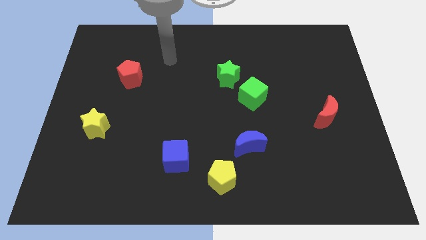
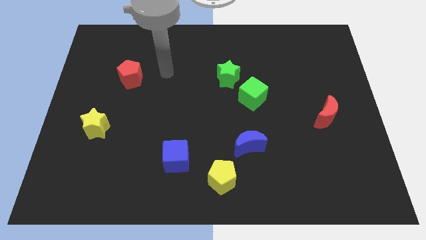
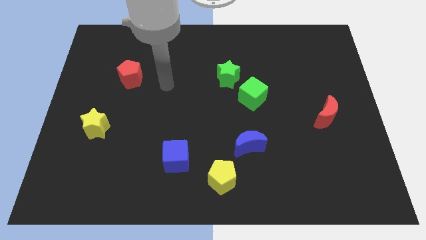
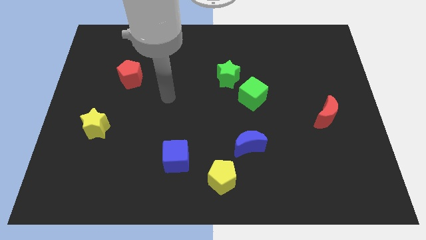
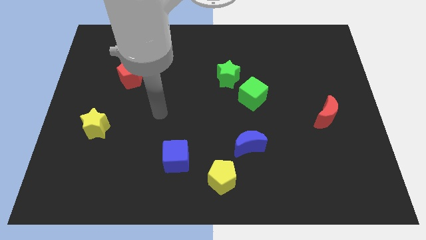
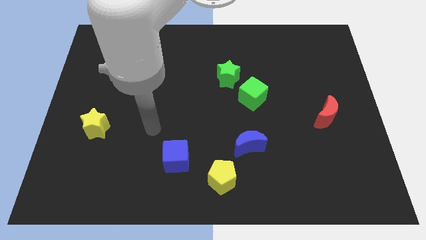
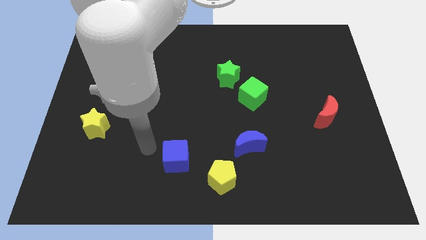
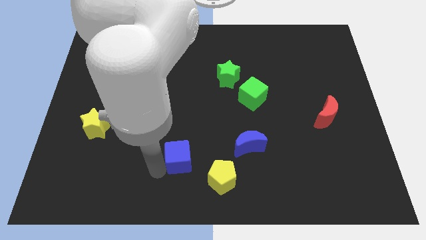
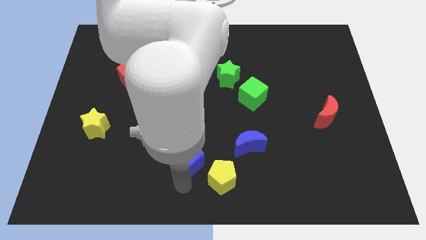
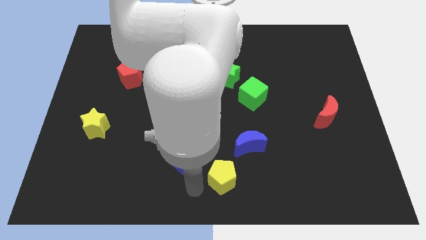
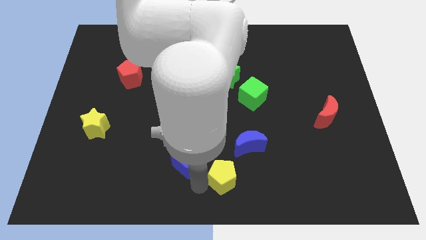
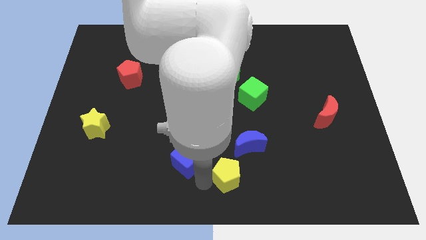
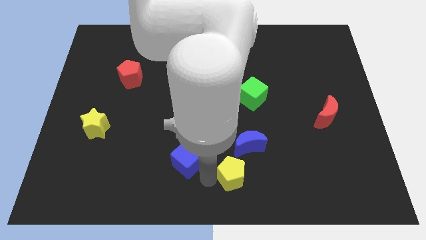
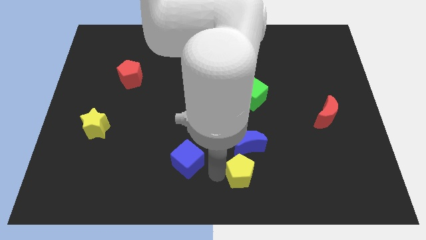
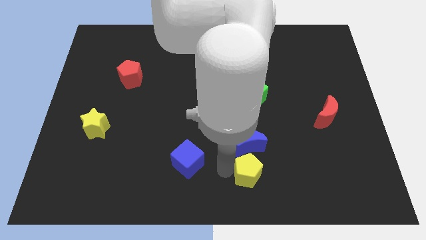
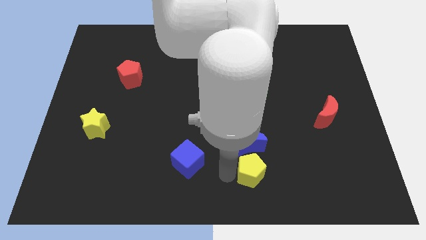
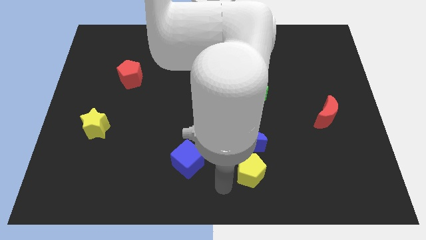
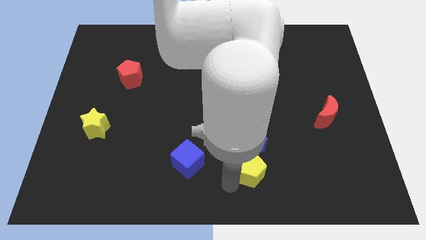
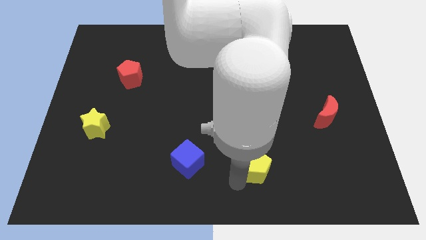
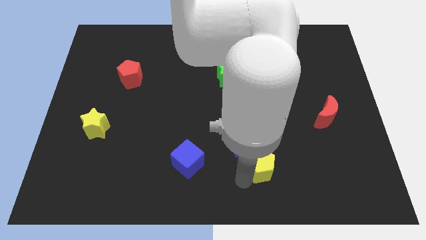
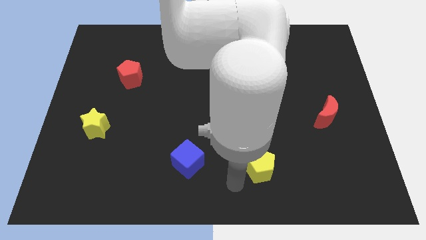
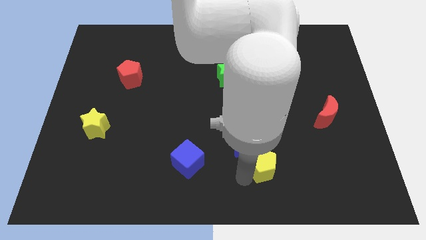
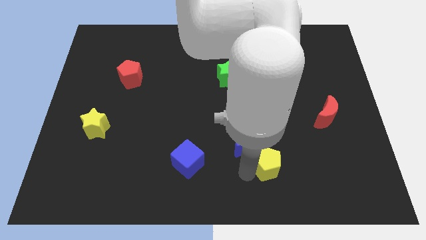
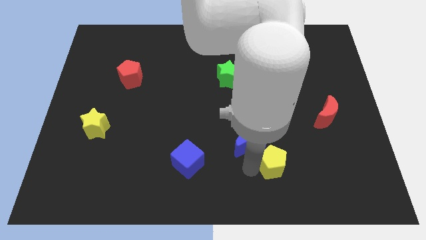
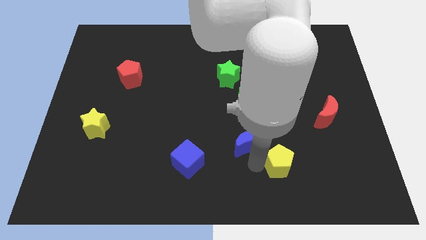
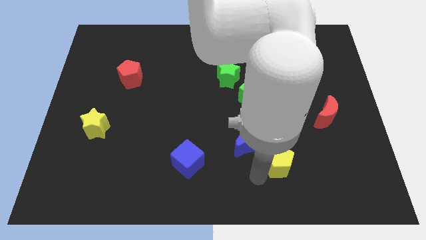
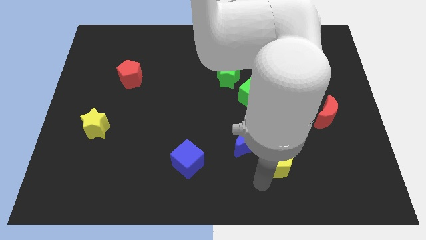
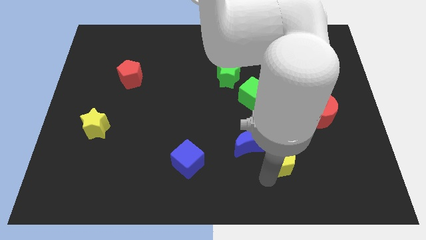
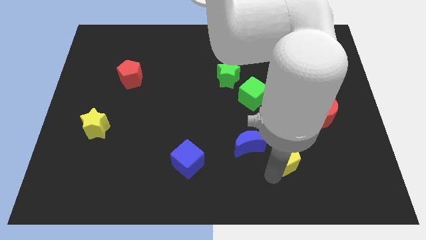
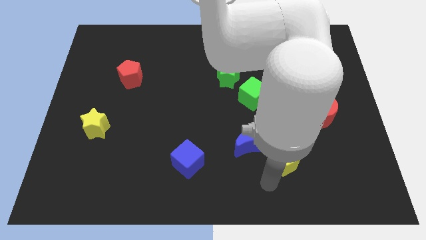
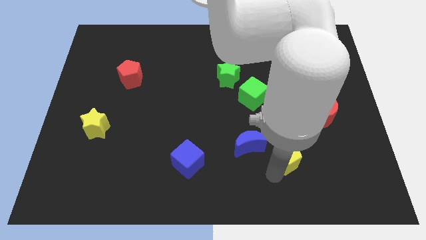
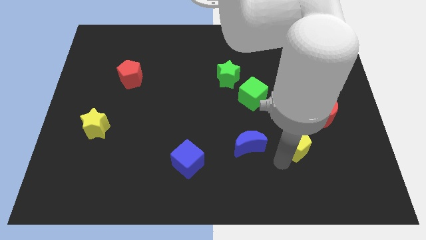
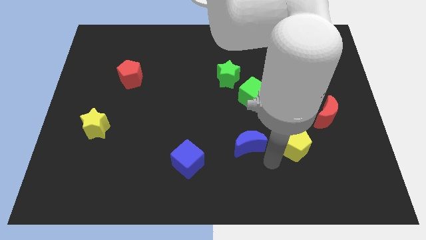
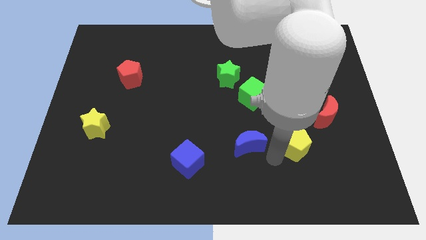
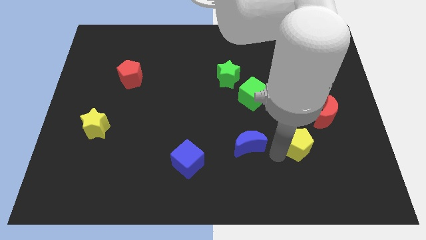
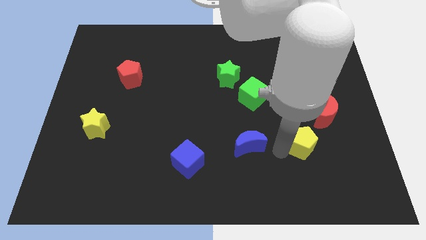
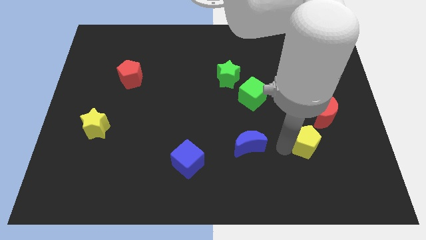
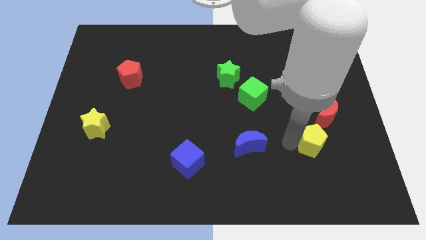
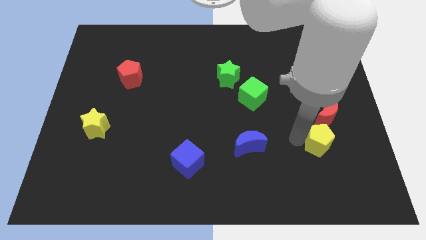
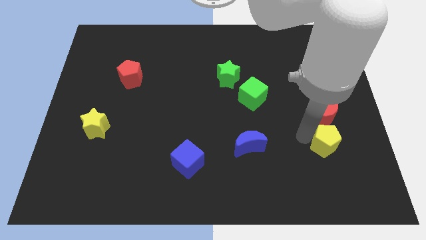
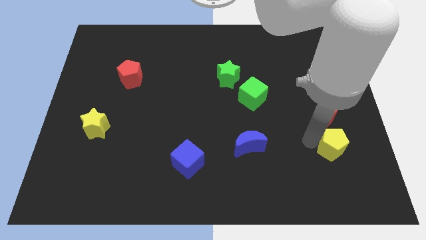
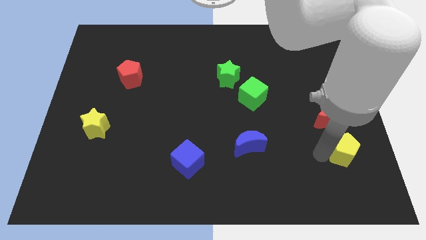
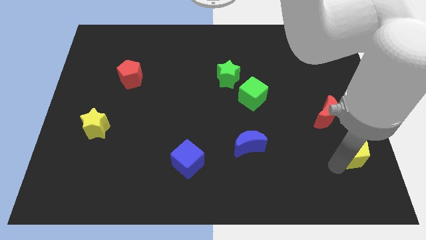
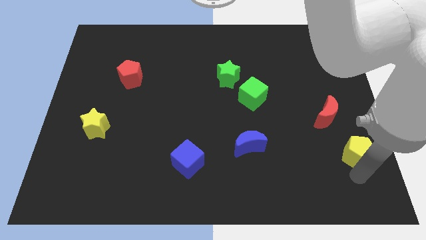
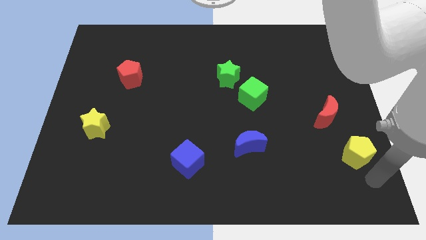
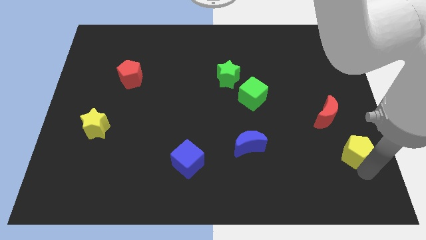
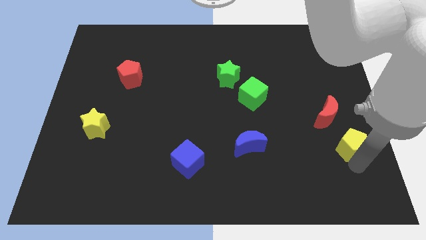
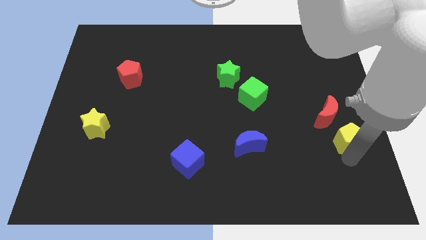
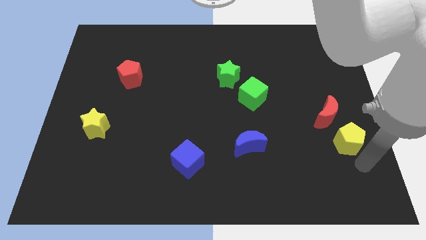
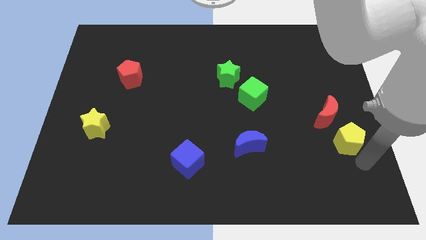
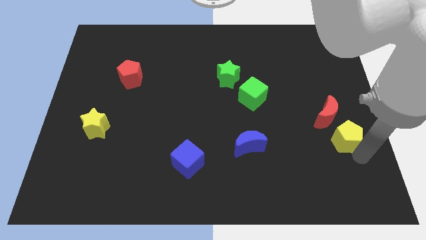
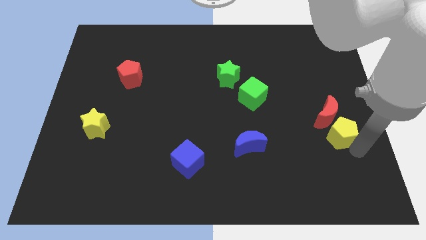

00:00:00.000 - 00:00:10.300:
put the yellow pentagon close to the red moon

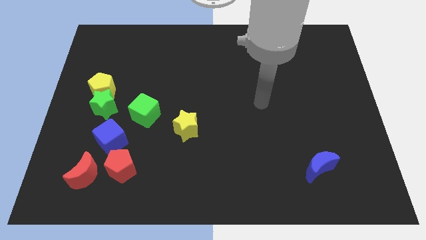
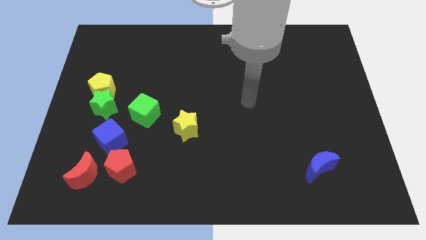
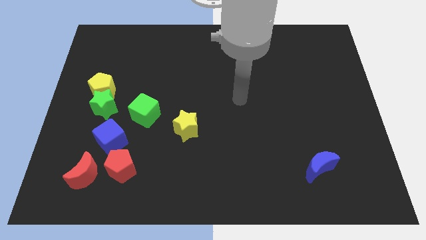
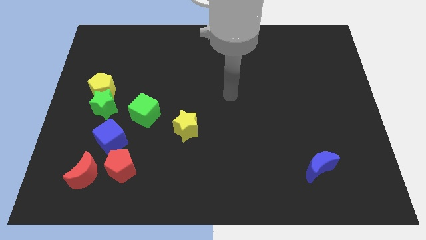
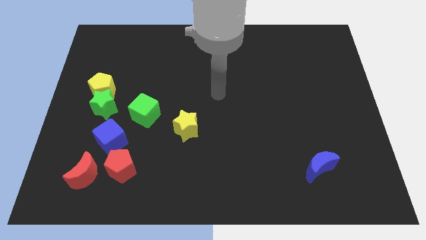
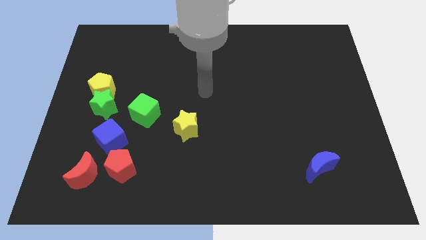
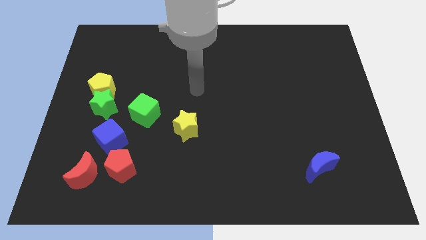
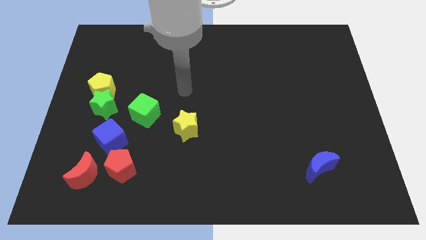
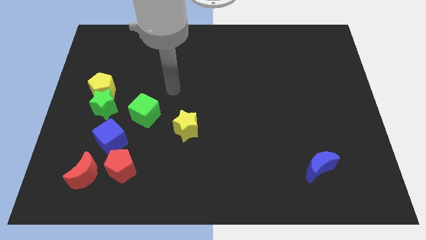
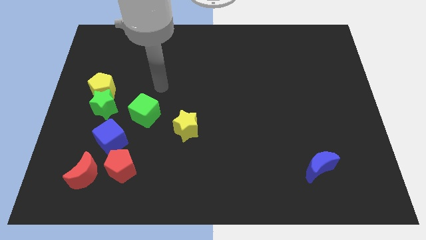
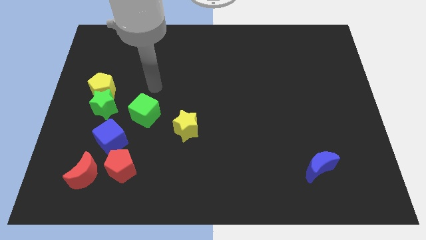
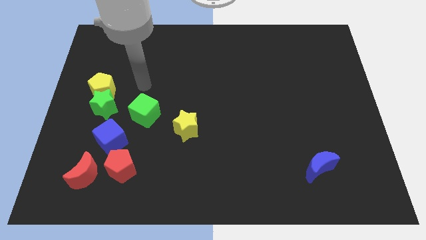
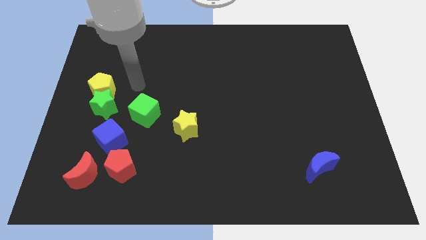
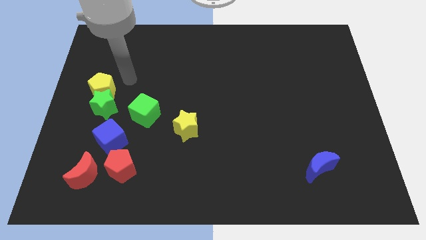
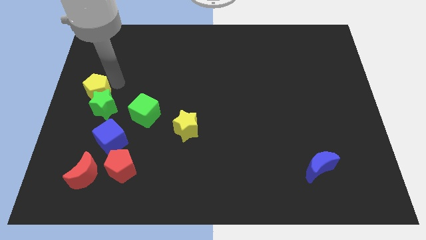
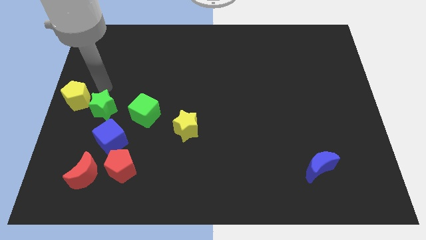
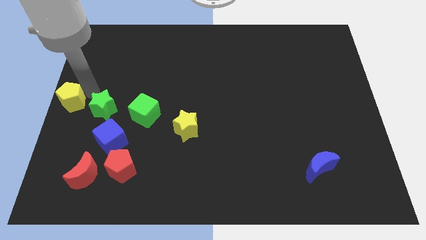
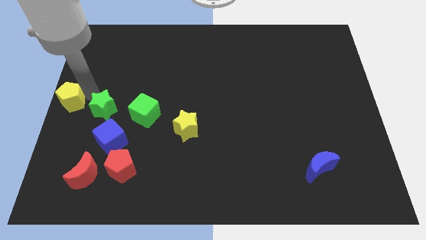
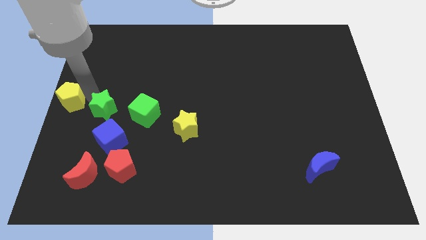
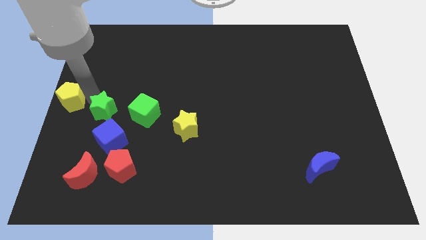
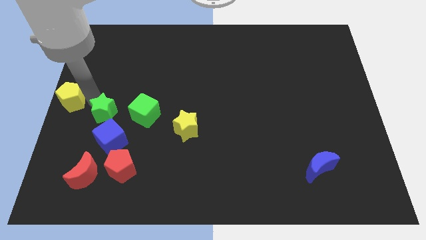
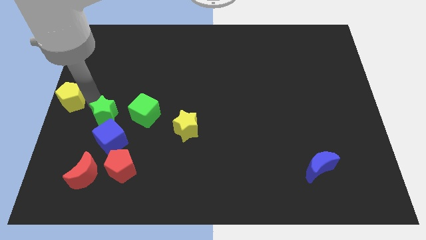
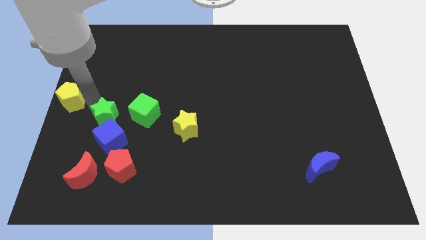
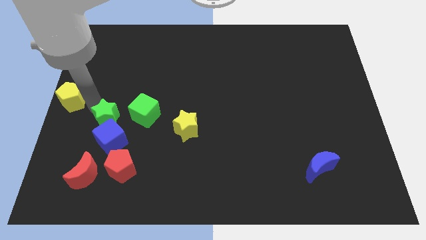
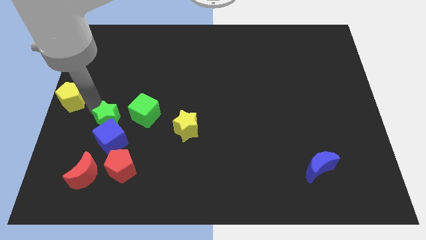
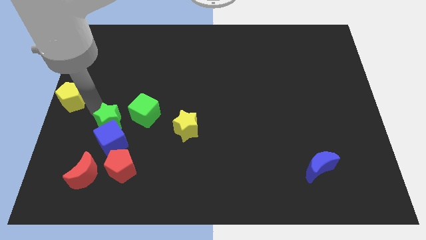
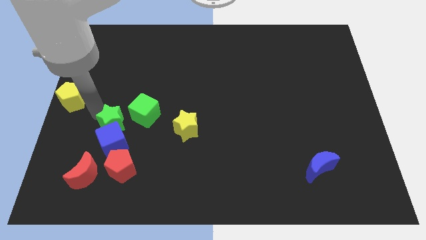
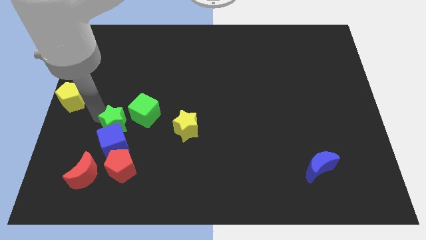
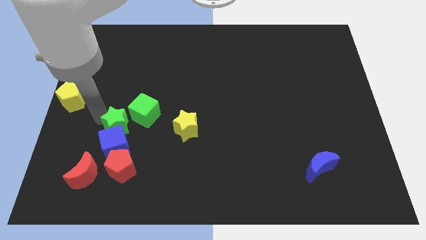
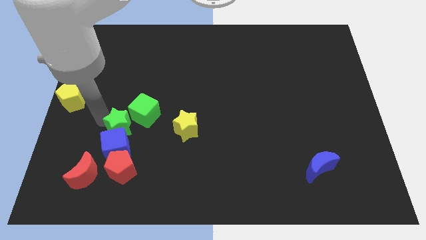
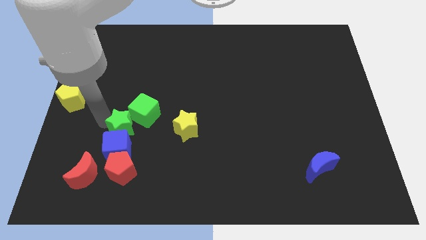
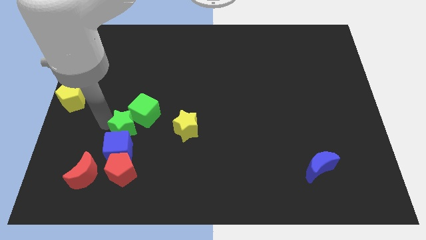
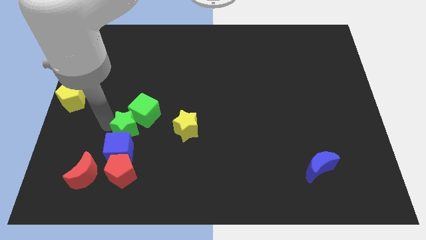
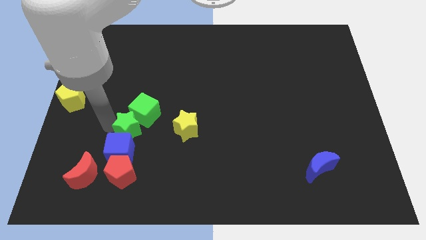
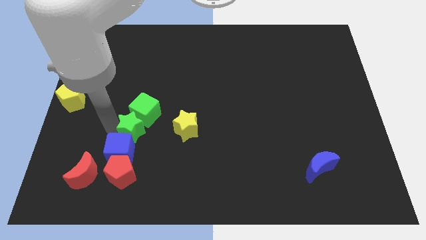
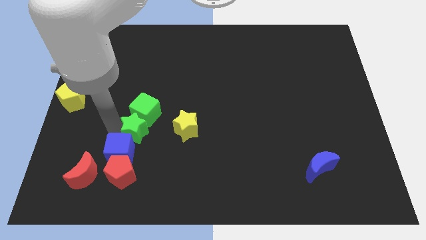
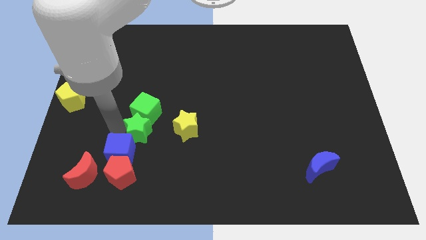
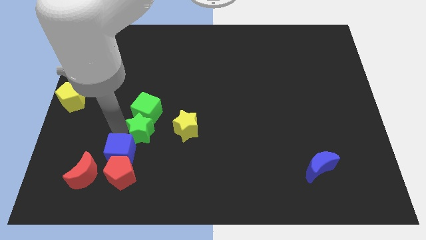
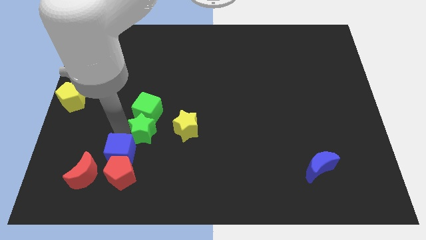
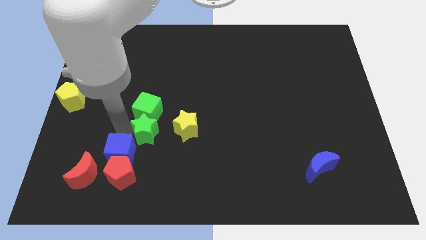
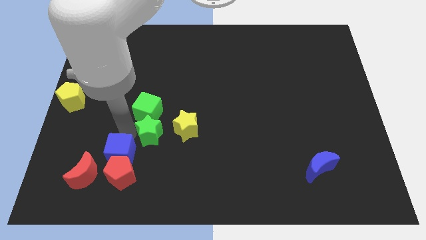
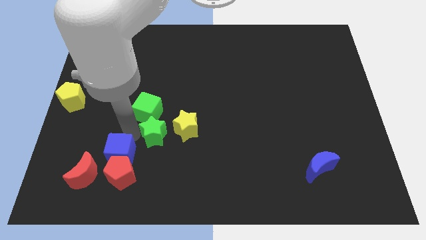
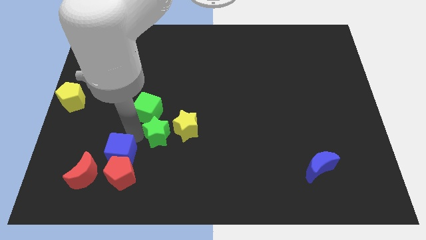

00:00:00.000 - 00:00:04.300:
slide the green star to the yellow star
